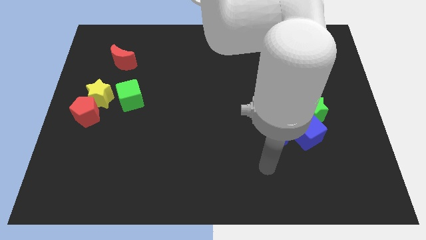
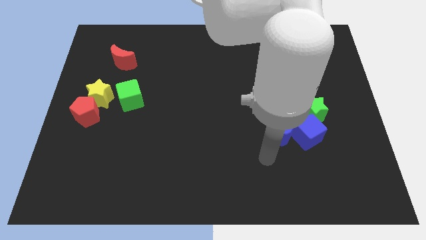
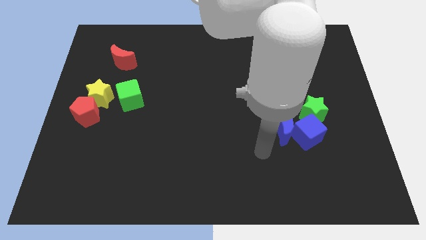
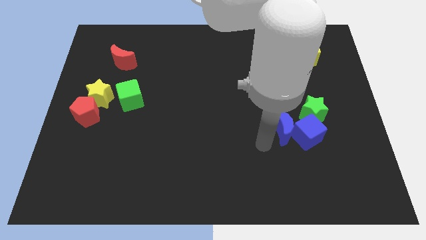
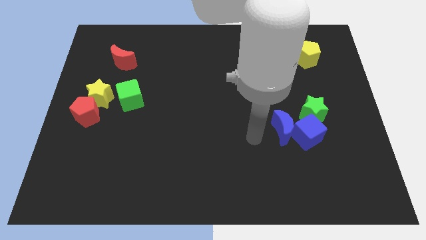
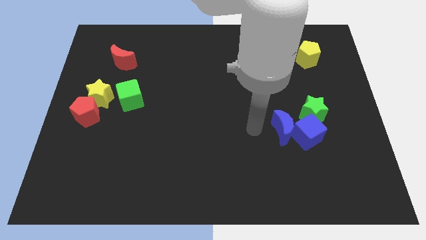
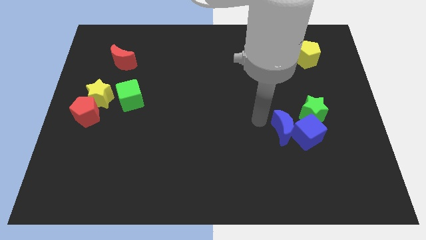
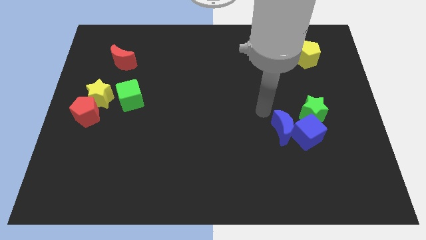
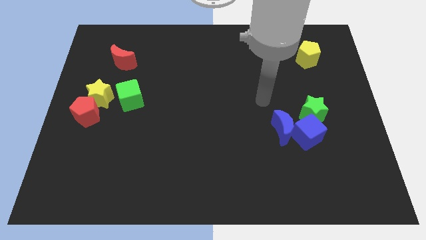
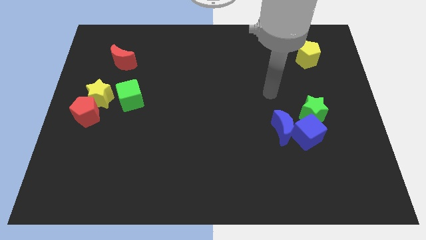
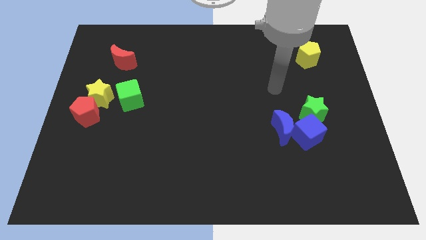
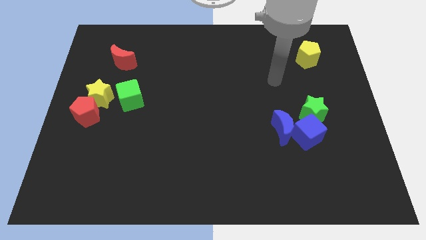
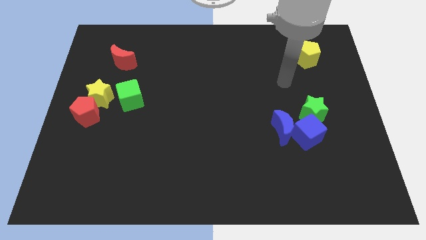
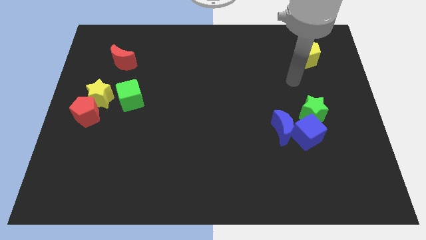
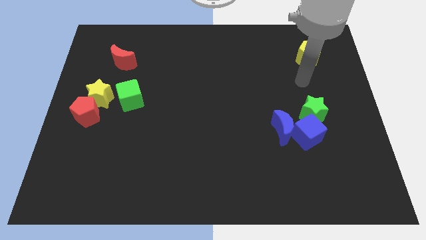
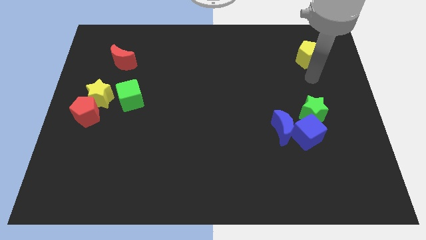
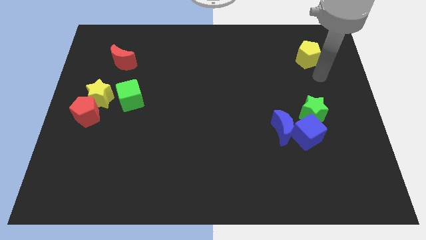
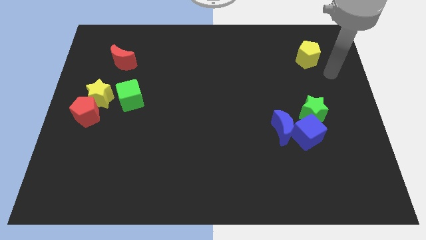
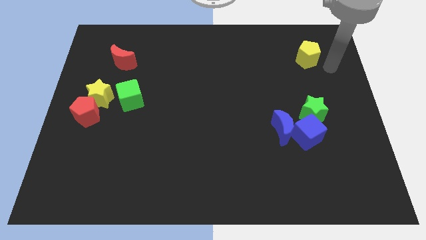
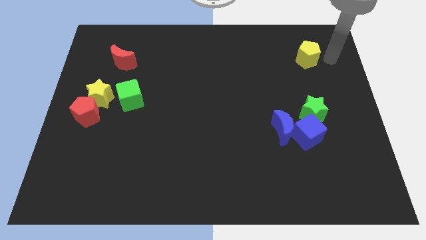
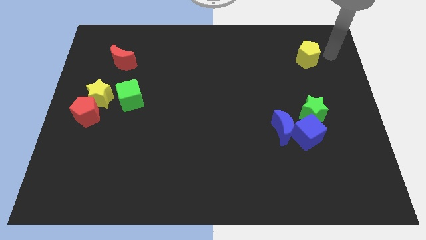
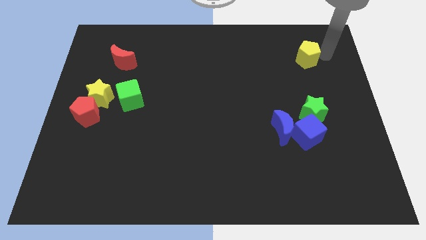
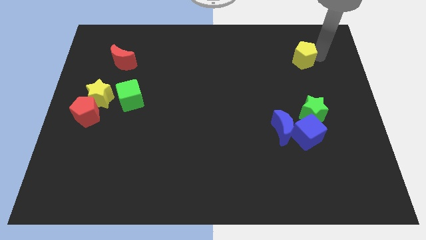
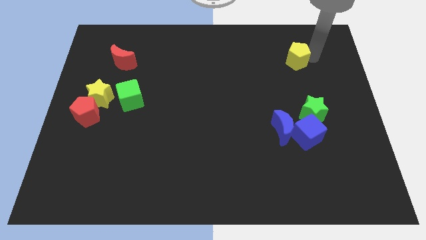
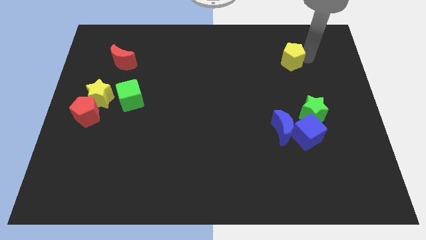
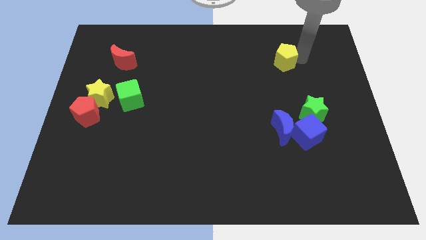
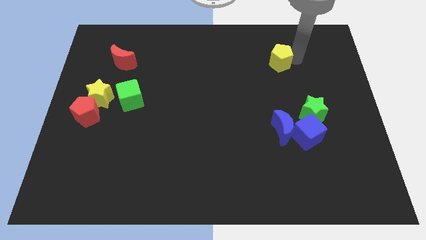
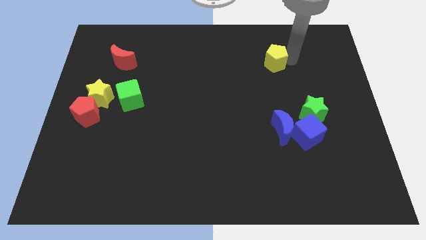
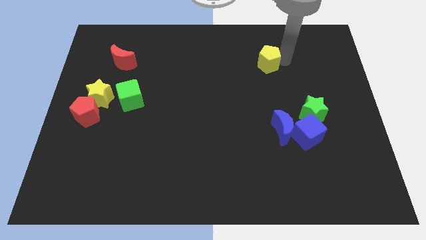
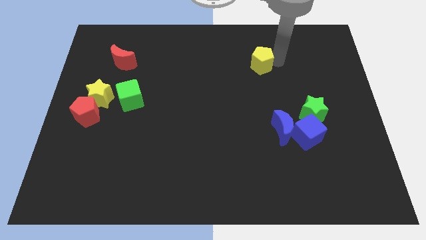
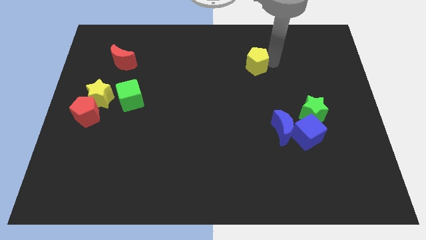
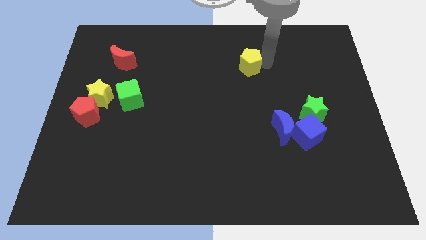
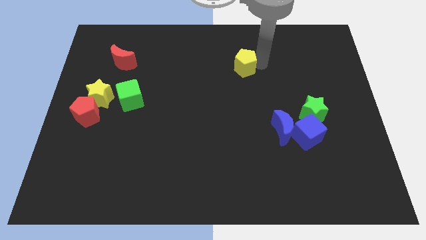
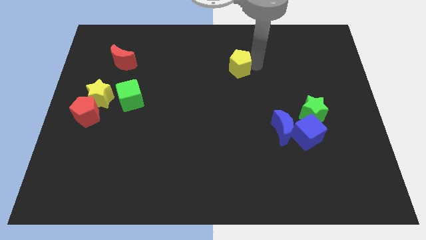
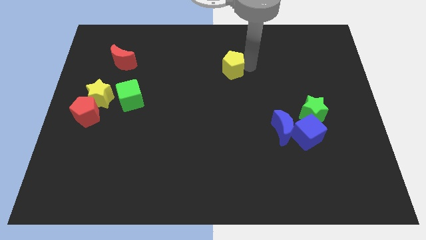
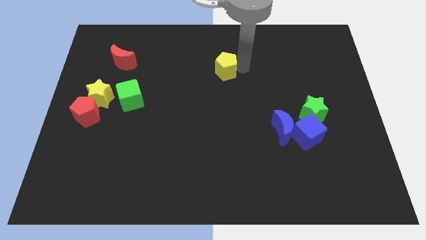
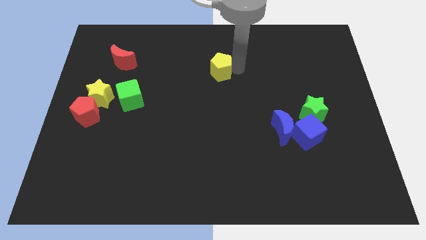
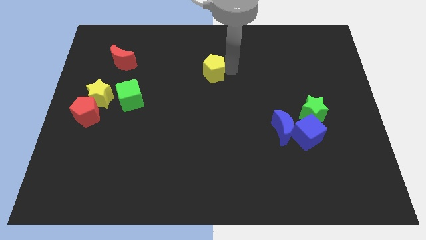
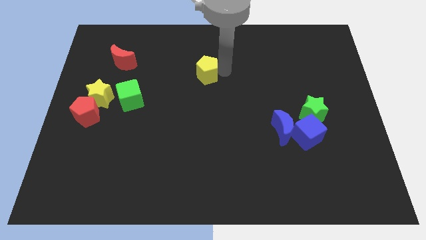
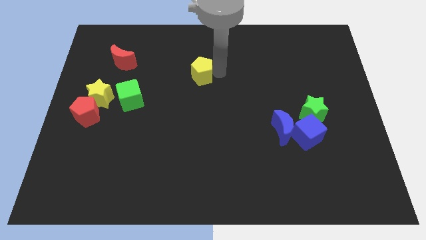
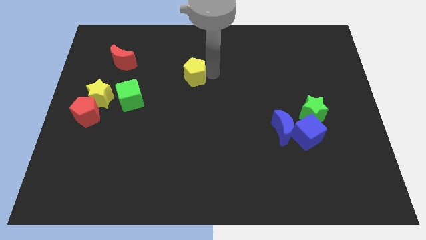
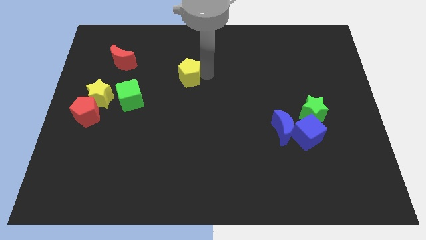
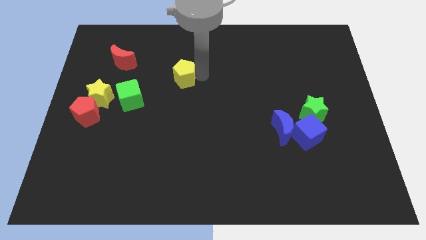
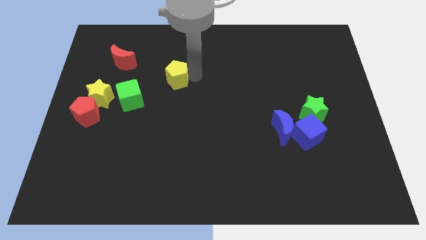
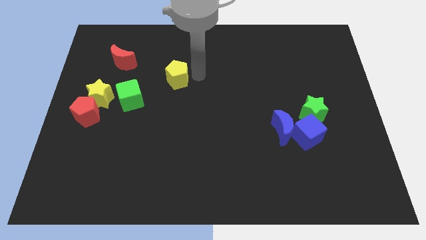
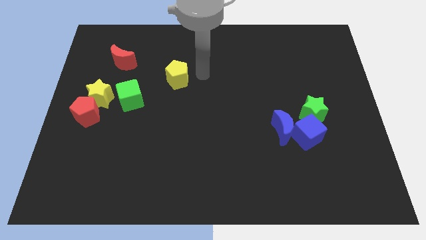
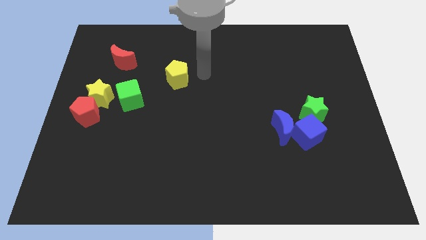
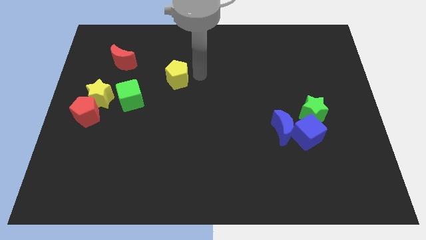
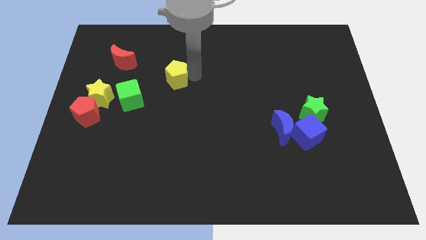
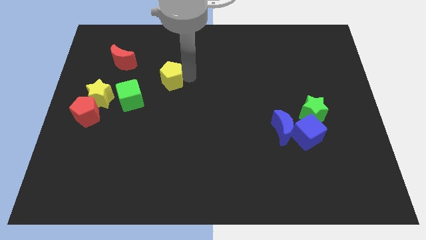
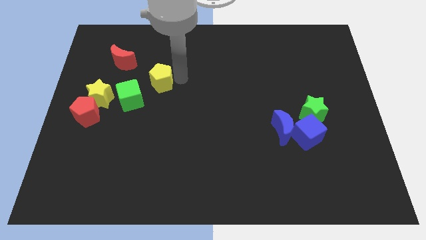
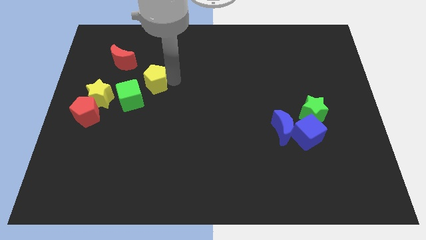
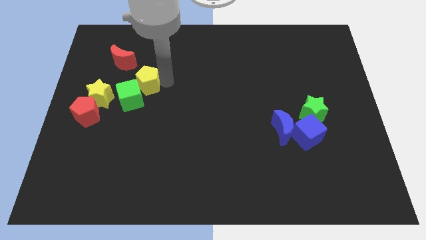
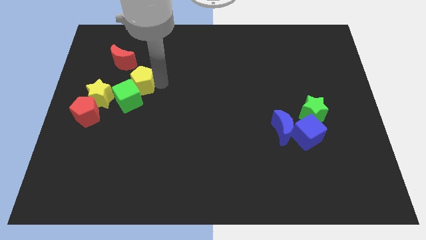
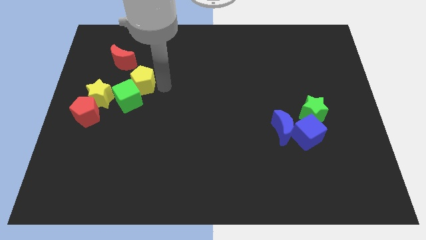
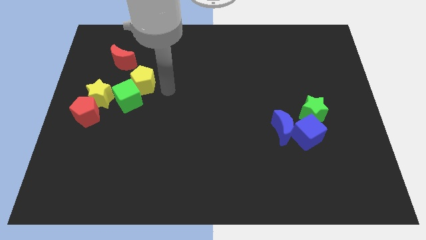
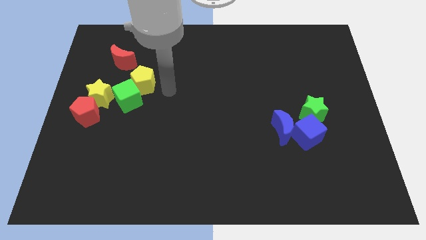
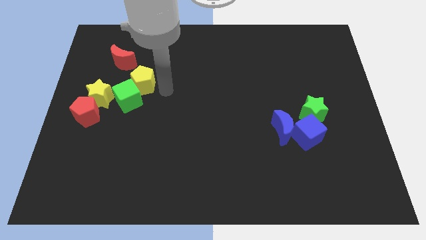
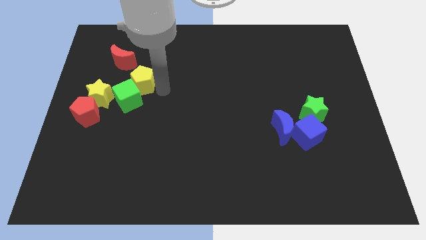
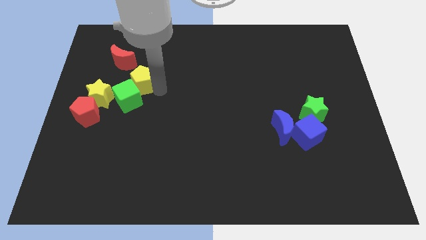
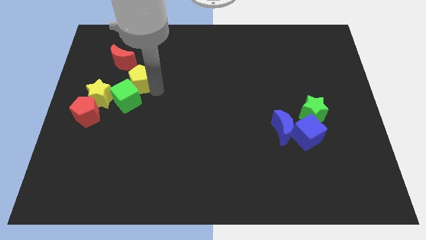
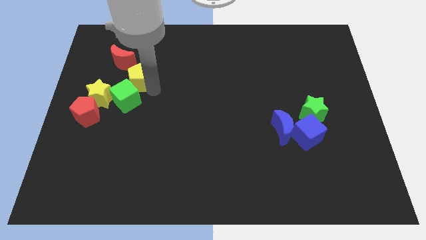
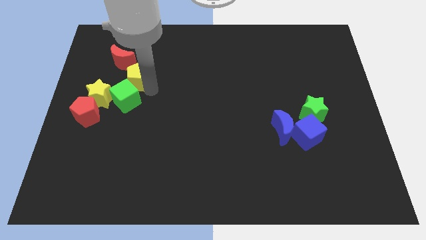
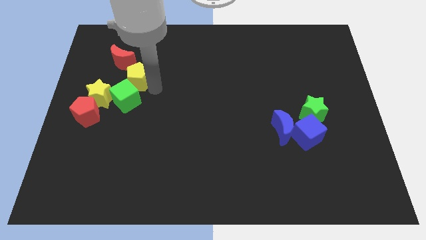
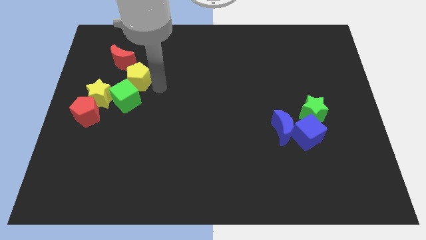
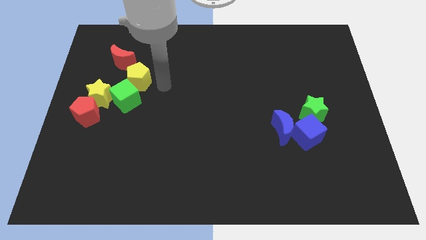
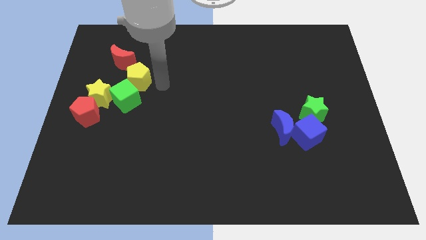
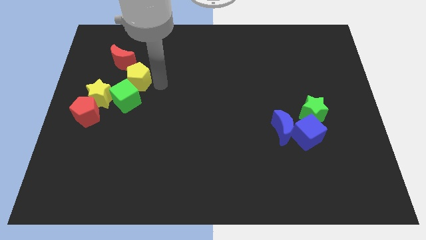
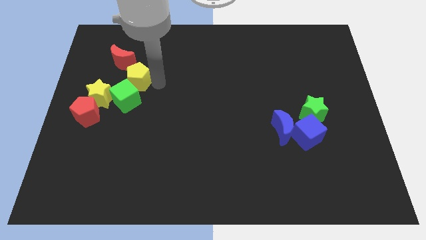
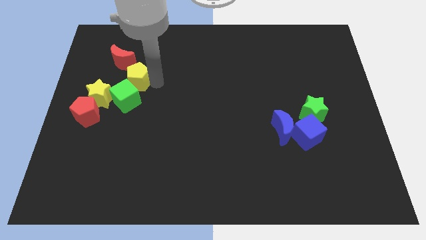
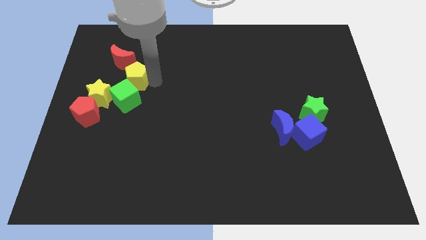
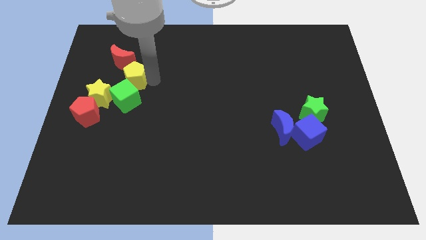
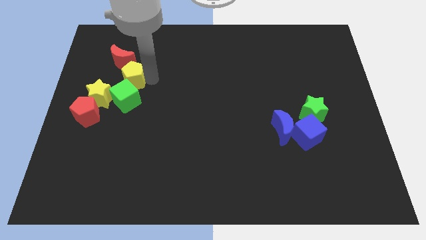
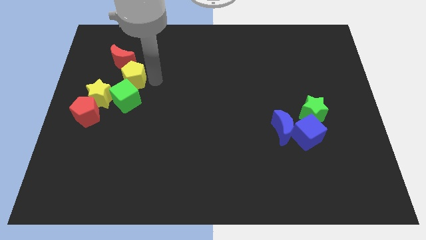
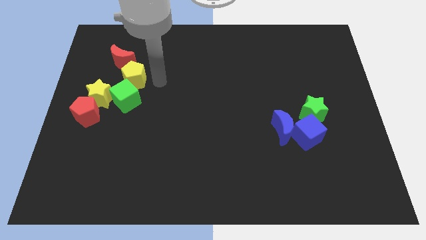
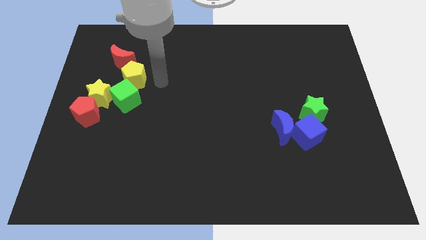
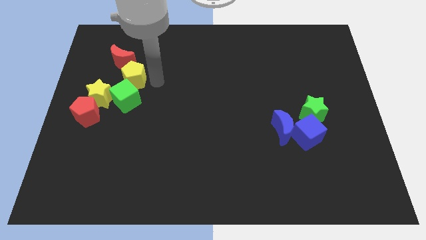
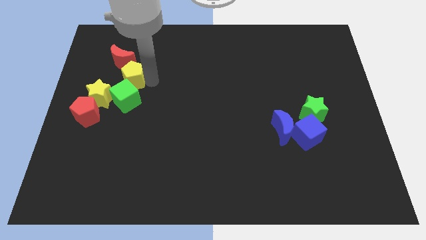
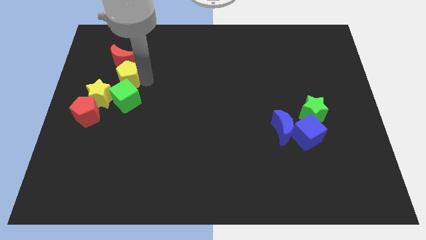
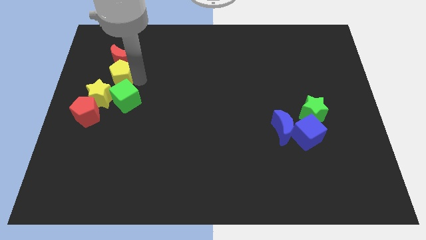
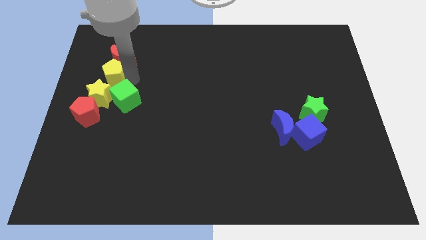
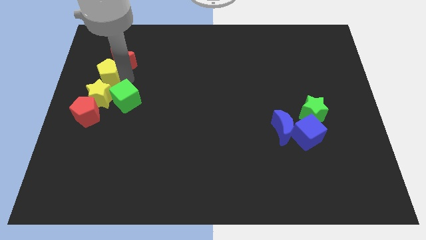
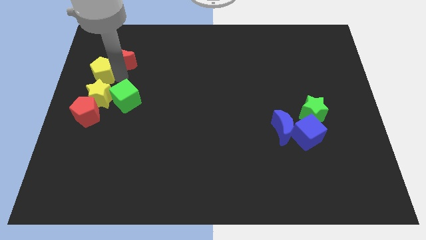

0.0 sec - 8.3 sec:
push the yellow pentagon to the left side of the board
